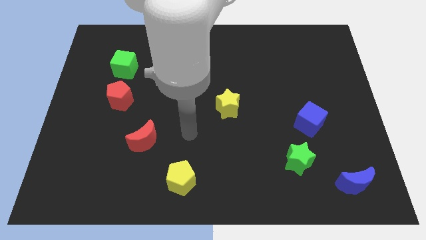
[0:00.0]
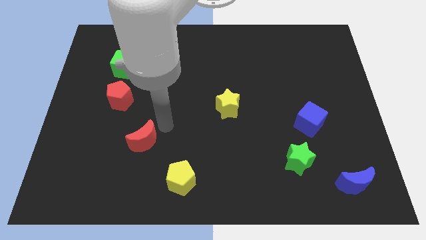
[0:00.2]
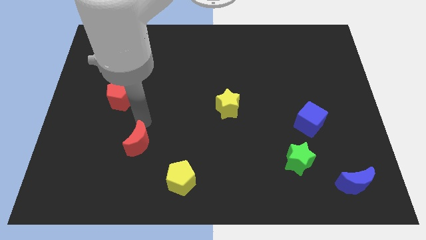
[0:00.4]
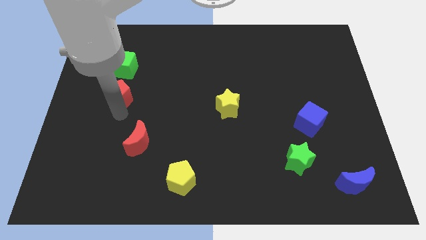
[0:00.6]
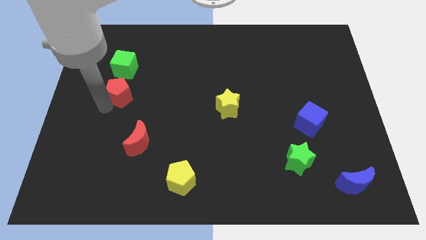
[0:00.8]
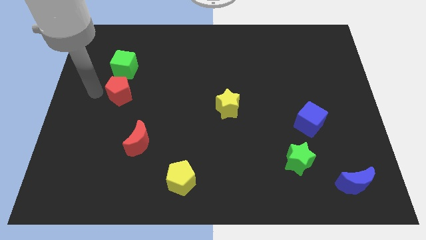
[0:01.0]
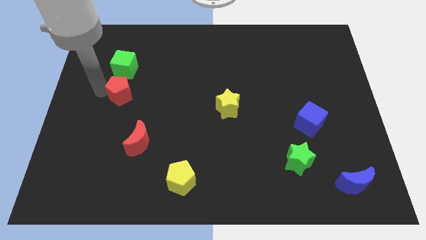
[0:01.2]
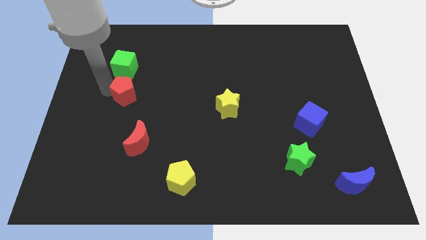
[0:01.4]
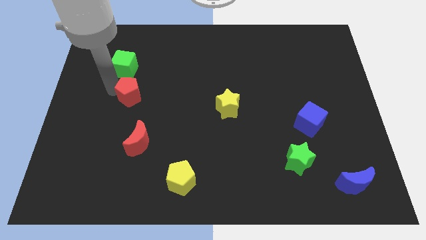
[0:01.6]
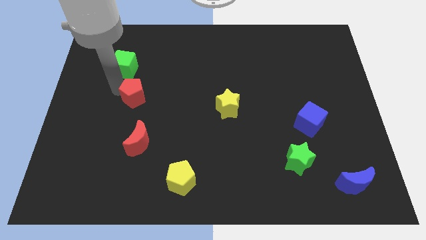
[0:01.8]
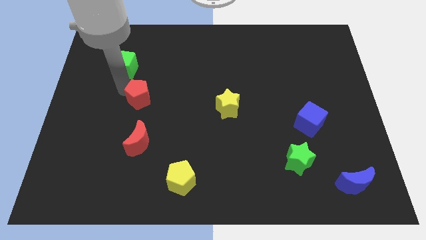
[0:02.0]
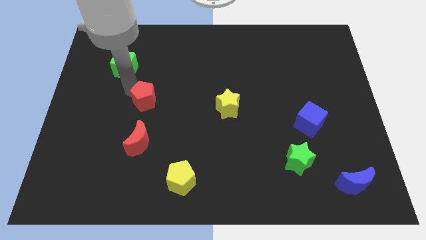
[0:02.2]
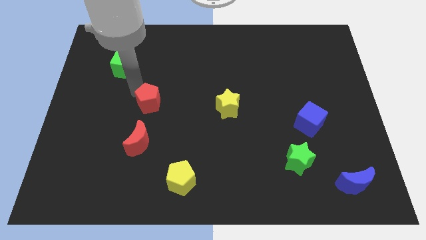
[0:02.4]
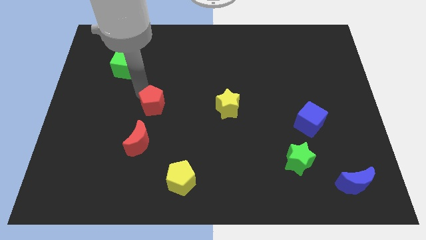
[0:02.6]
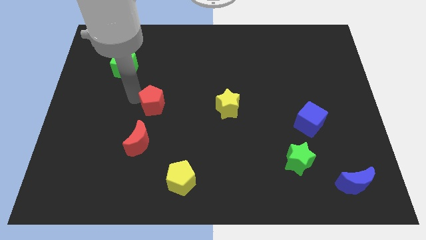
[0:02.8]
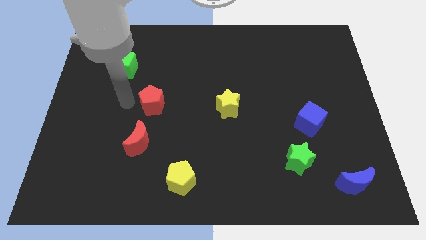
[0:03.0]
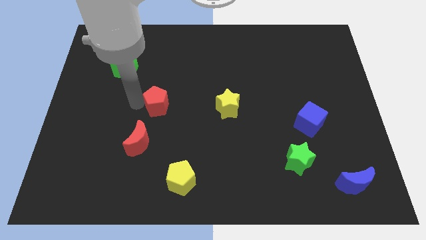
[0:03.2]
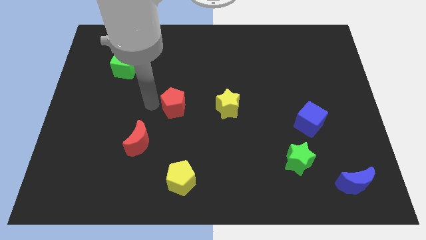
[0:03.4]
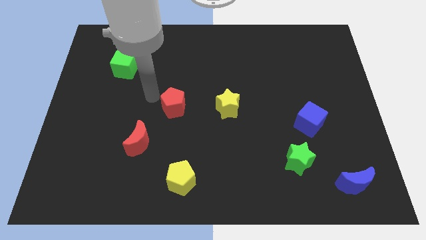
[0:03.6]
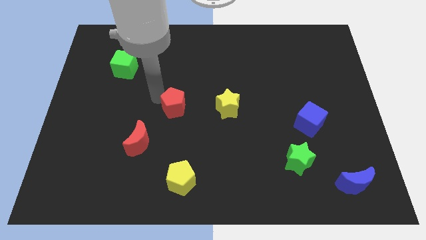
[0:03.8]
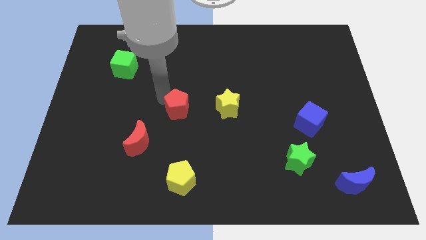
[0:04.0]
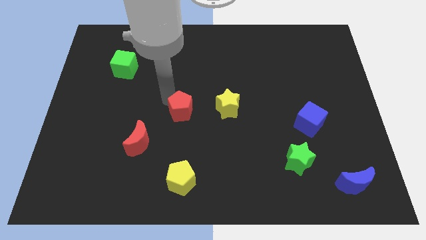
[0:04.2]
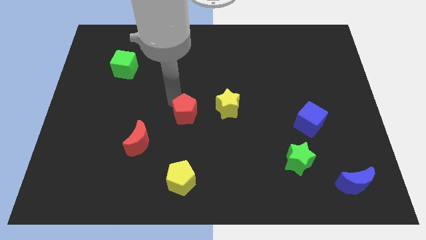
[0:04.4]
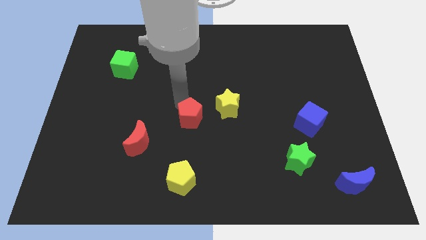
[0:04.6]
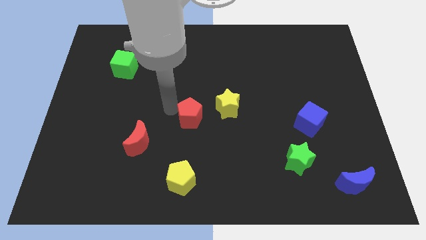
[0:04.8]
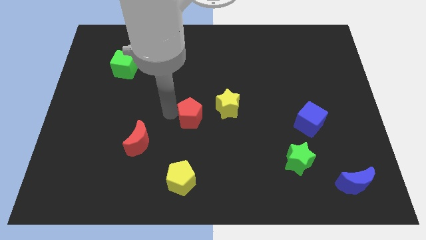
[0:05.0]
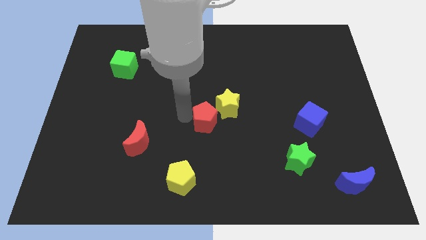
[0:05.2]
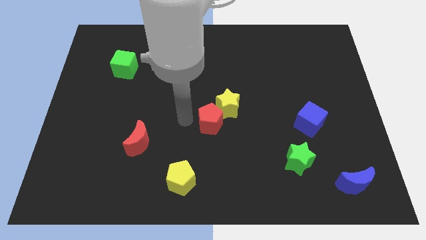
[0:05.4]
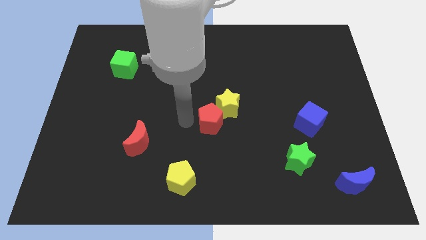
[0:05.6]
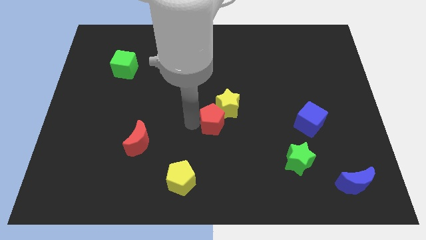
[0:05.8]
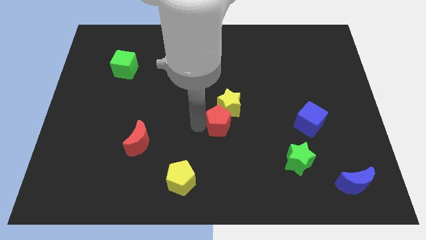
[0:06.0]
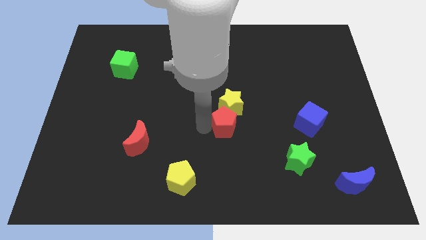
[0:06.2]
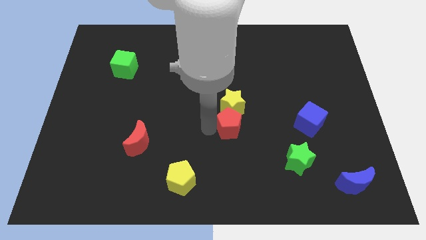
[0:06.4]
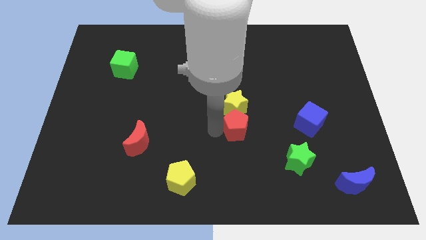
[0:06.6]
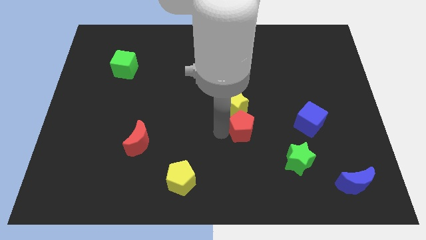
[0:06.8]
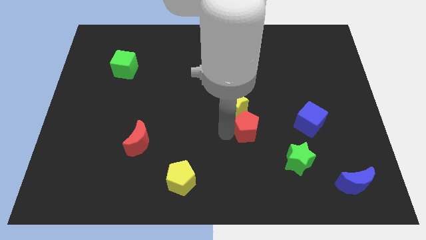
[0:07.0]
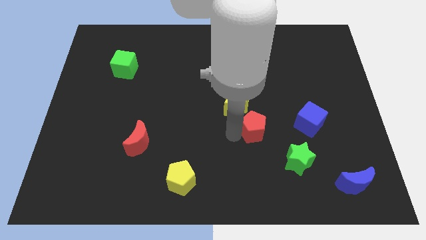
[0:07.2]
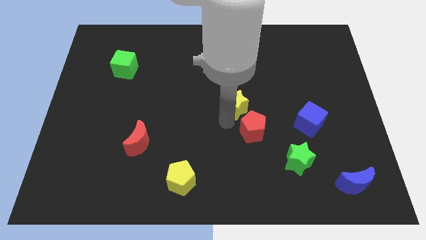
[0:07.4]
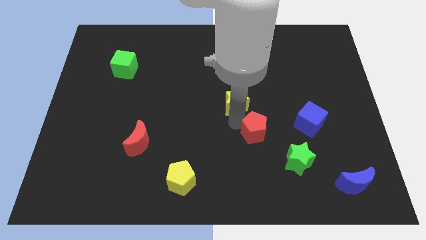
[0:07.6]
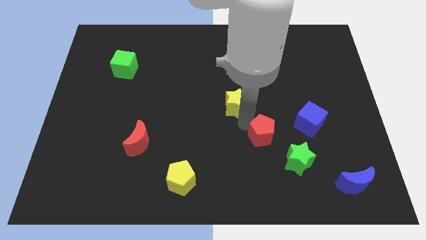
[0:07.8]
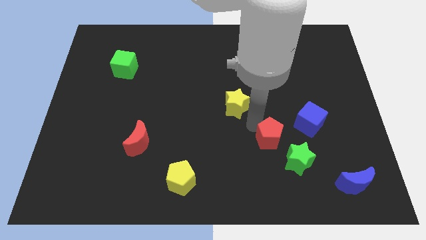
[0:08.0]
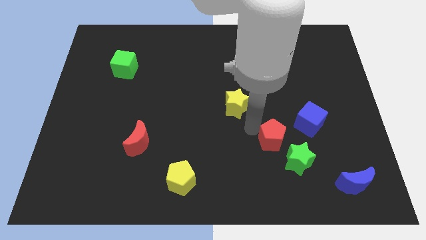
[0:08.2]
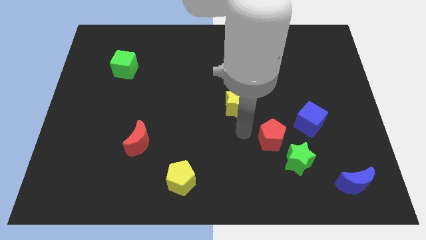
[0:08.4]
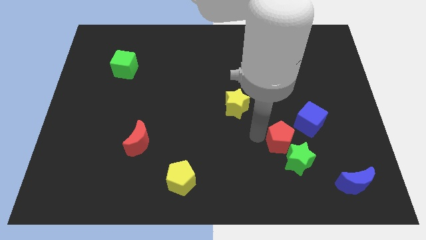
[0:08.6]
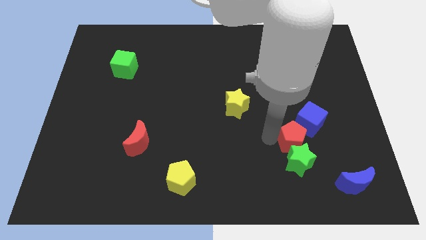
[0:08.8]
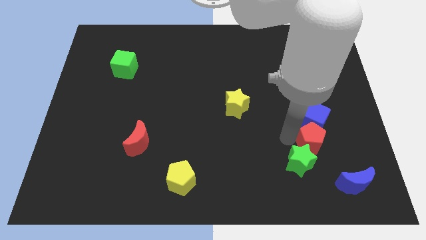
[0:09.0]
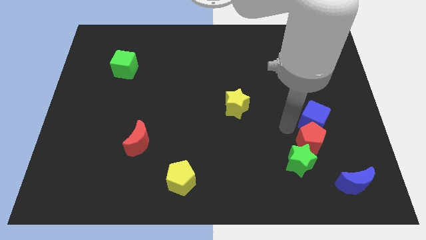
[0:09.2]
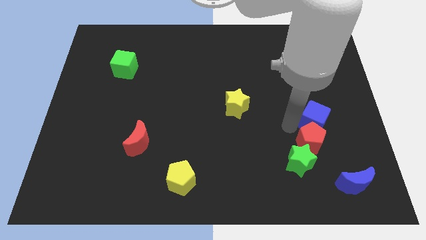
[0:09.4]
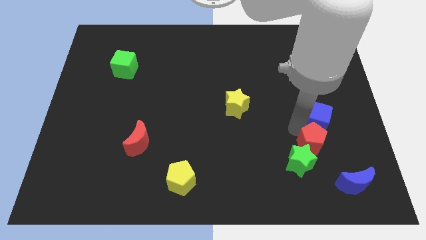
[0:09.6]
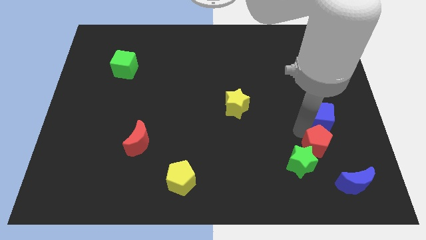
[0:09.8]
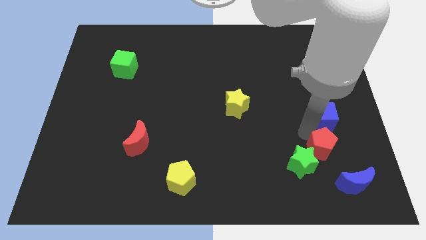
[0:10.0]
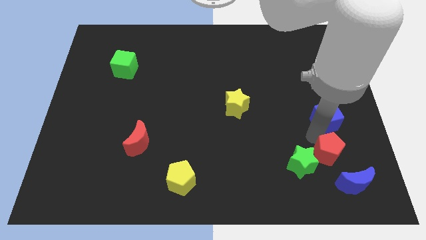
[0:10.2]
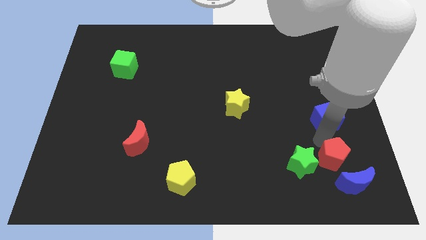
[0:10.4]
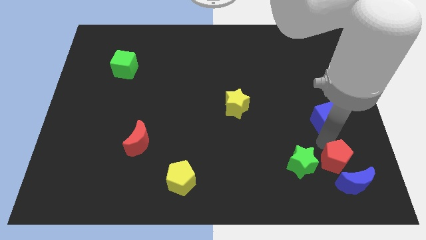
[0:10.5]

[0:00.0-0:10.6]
put the red pentagon to the blue moon

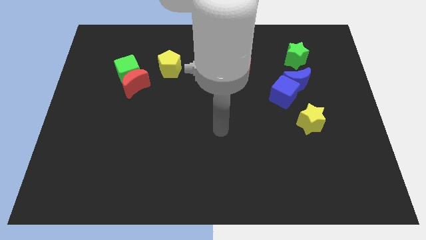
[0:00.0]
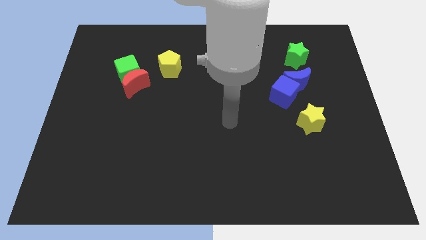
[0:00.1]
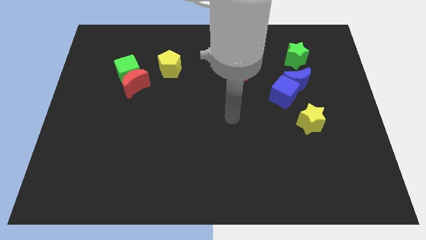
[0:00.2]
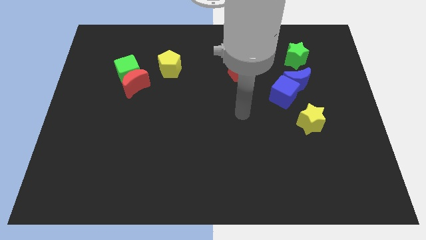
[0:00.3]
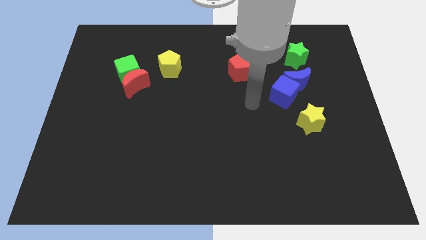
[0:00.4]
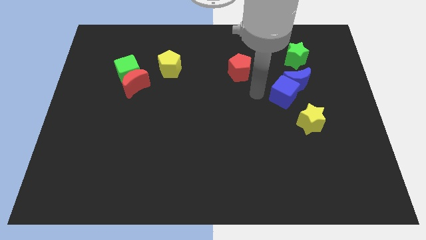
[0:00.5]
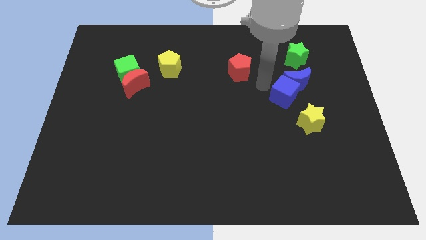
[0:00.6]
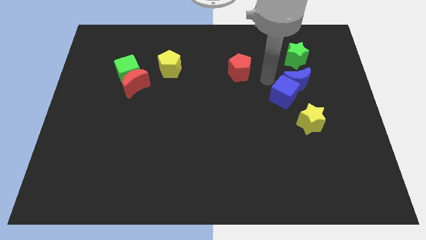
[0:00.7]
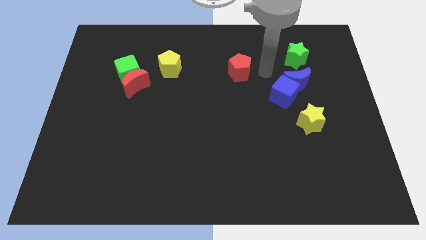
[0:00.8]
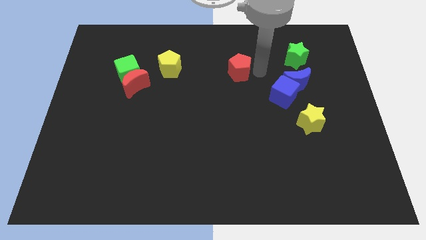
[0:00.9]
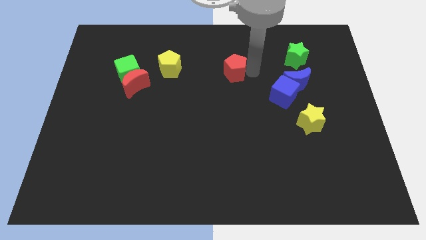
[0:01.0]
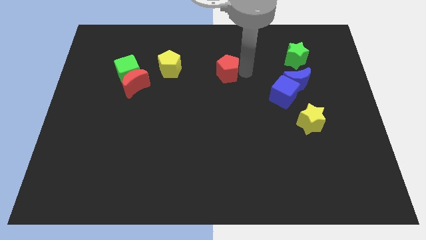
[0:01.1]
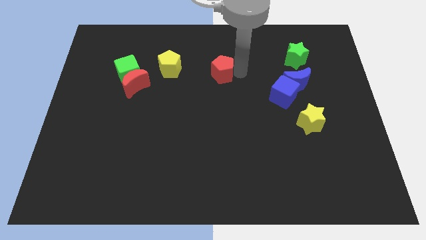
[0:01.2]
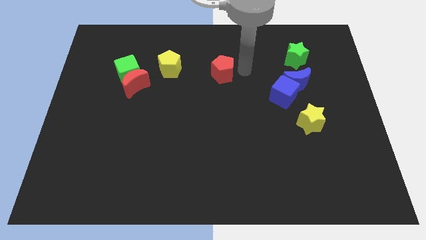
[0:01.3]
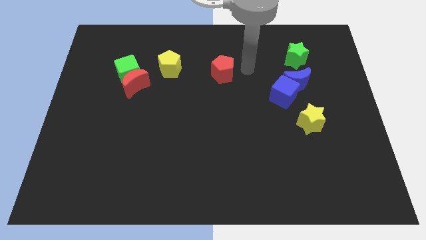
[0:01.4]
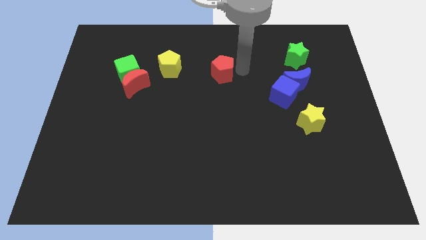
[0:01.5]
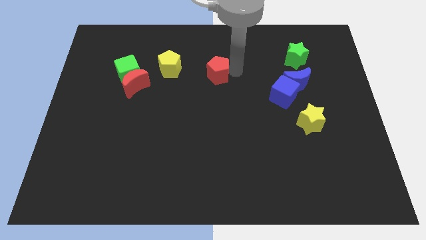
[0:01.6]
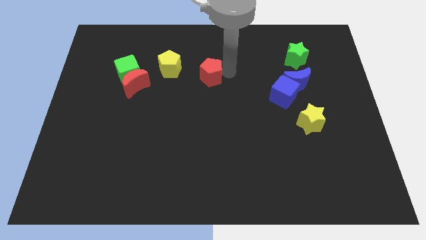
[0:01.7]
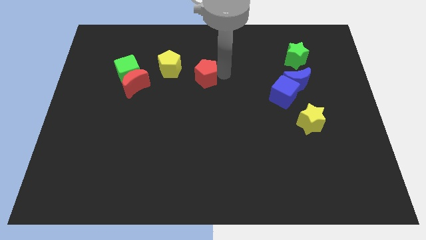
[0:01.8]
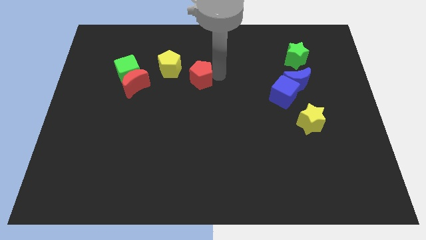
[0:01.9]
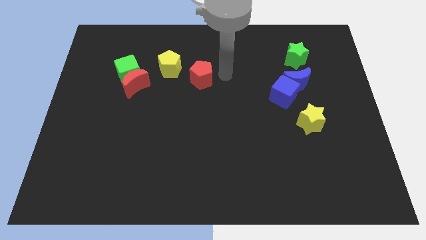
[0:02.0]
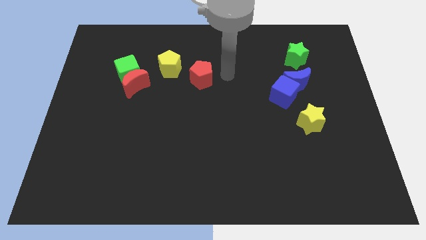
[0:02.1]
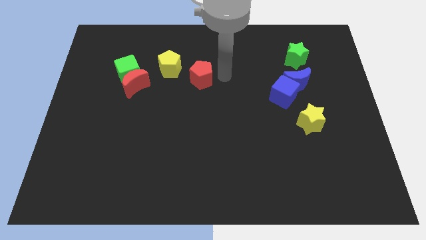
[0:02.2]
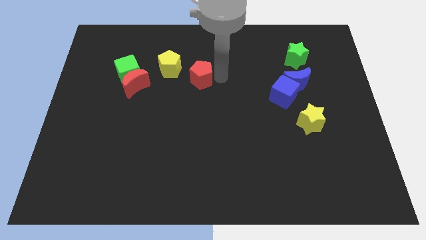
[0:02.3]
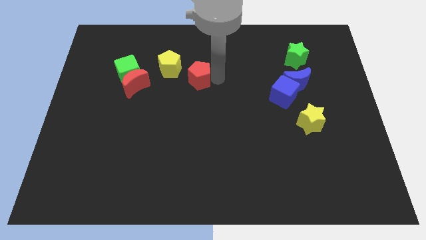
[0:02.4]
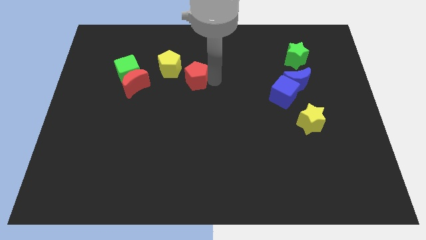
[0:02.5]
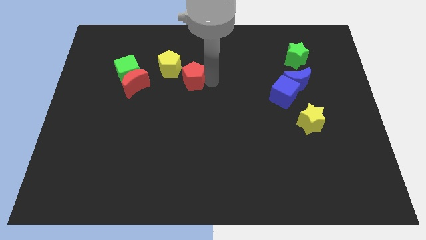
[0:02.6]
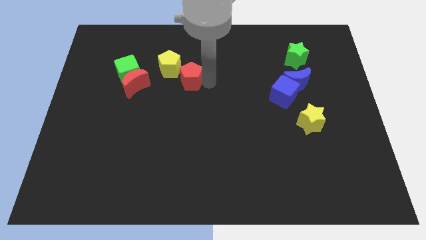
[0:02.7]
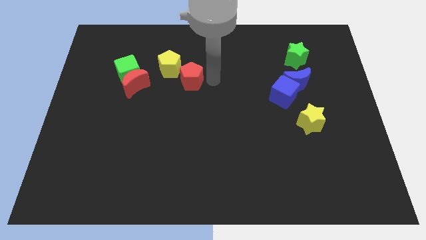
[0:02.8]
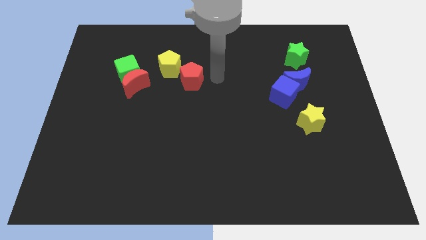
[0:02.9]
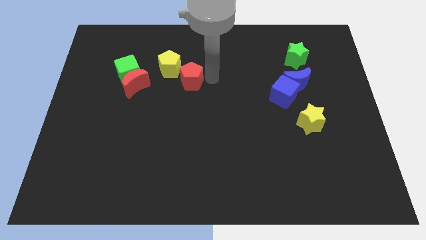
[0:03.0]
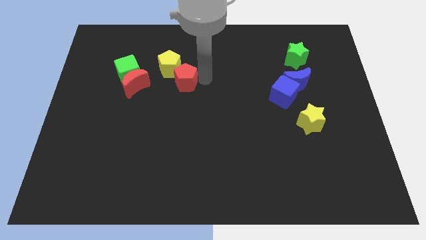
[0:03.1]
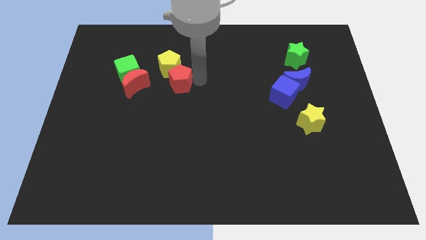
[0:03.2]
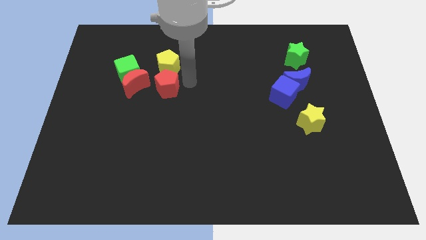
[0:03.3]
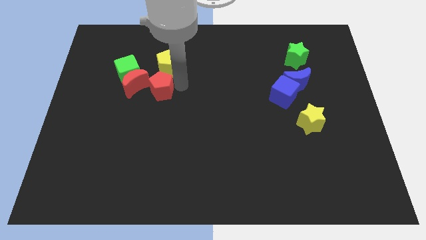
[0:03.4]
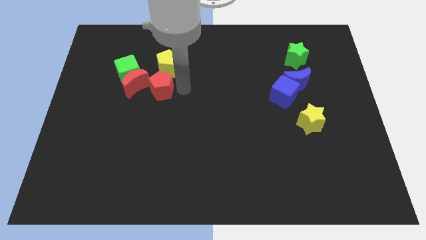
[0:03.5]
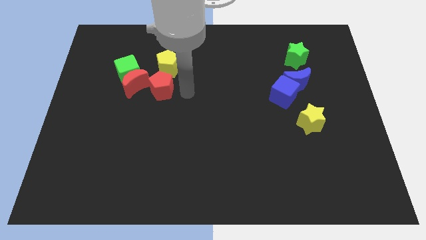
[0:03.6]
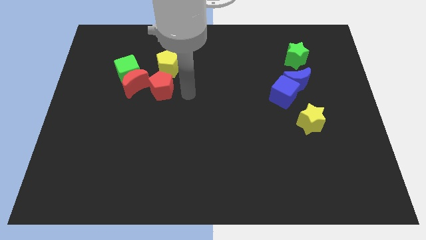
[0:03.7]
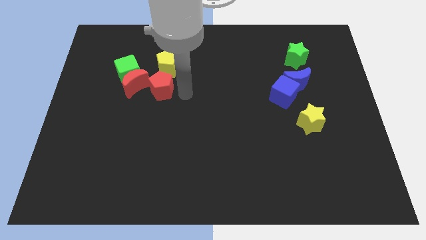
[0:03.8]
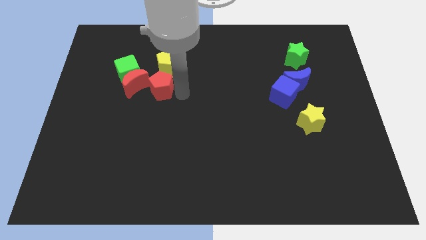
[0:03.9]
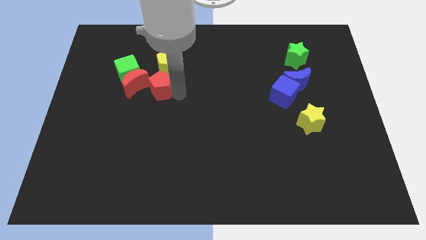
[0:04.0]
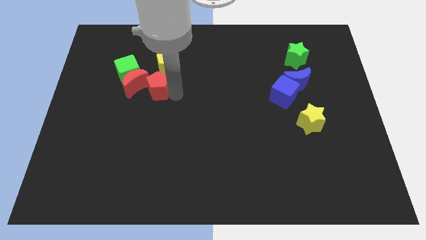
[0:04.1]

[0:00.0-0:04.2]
push the red pentagon next to the red moon
